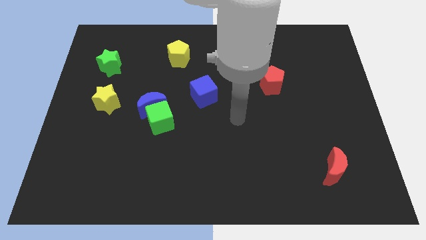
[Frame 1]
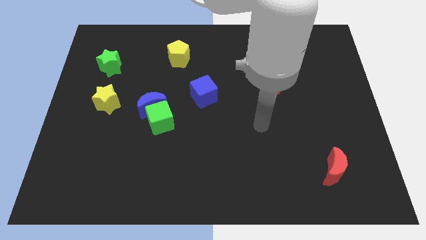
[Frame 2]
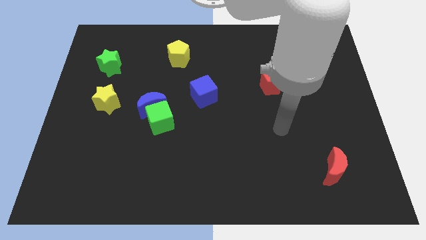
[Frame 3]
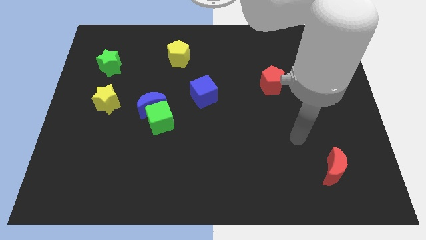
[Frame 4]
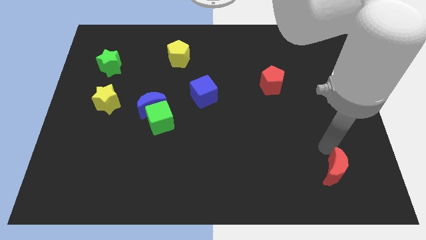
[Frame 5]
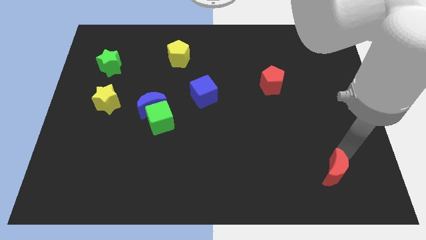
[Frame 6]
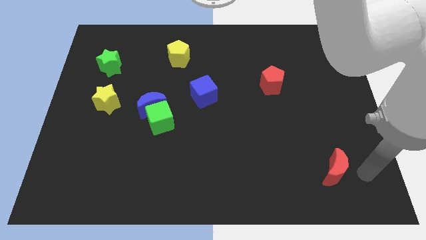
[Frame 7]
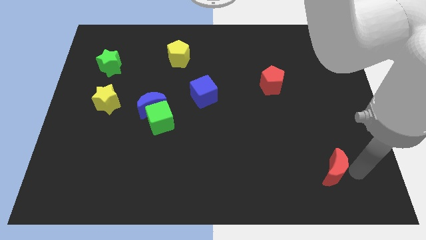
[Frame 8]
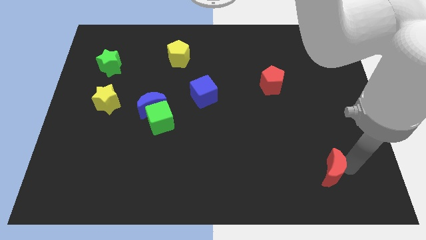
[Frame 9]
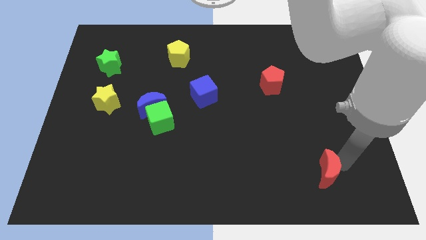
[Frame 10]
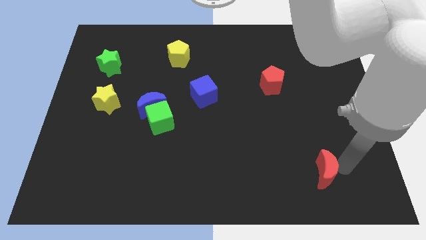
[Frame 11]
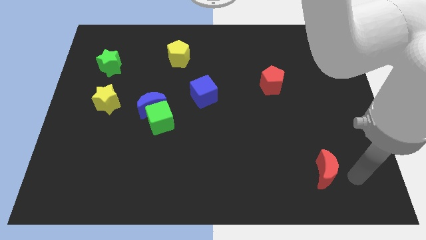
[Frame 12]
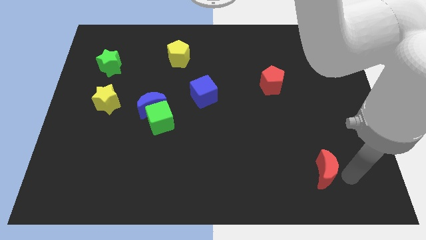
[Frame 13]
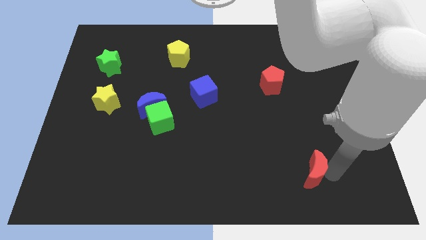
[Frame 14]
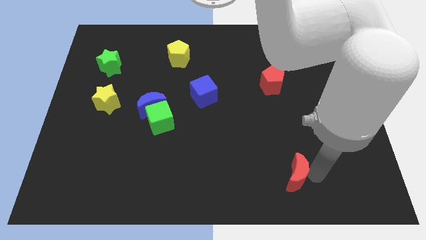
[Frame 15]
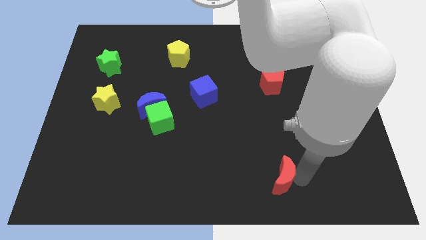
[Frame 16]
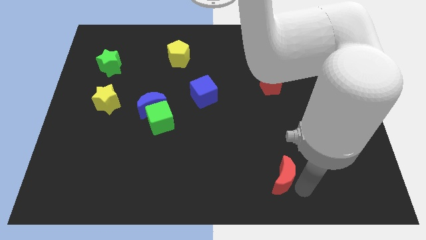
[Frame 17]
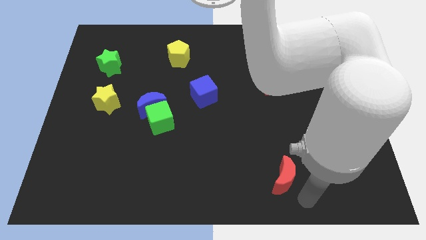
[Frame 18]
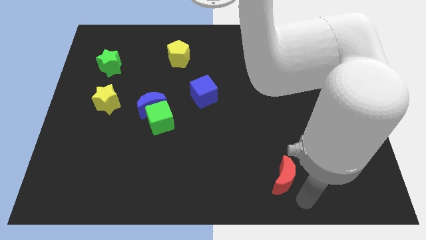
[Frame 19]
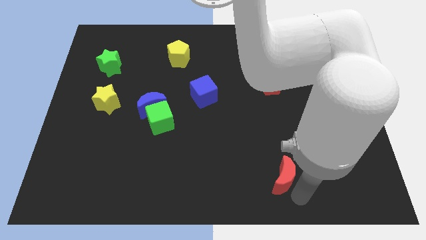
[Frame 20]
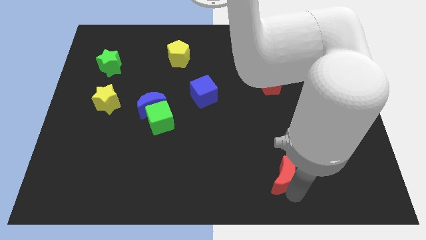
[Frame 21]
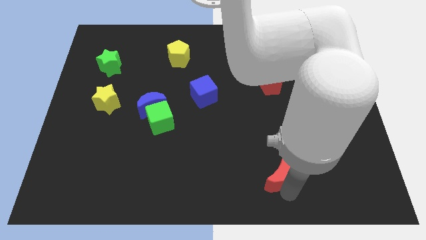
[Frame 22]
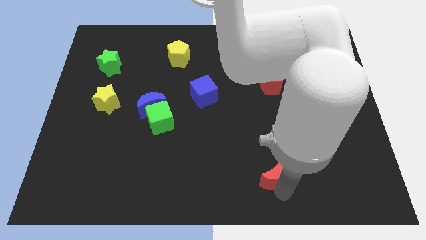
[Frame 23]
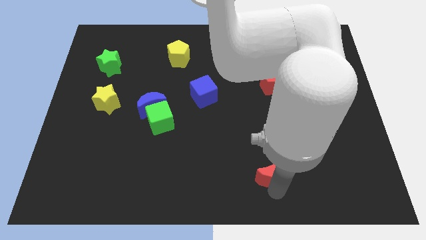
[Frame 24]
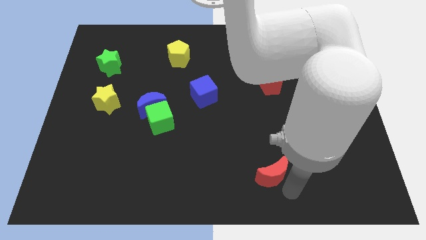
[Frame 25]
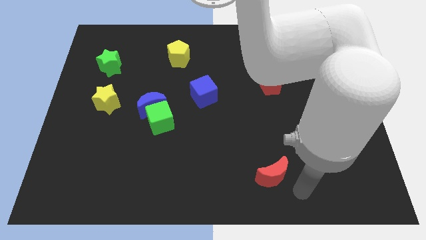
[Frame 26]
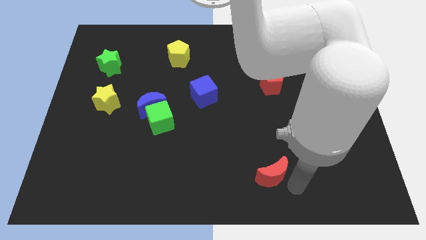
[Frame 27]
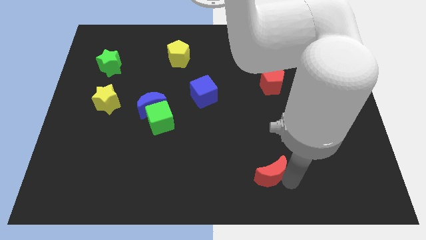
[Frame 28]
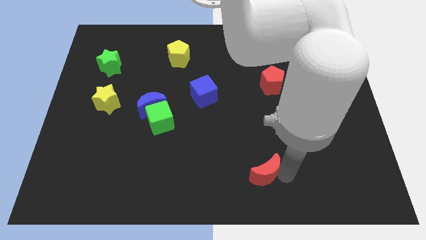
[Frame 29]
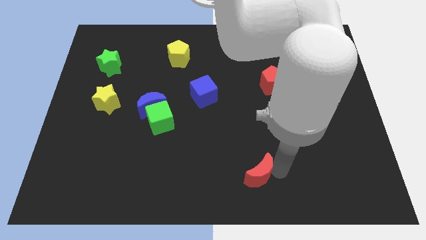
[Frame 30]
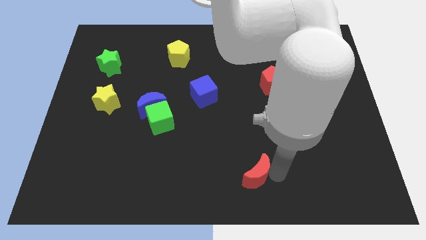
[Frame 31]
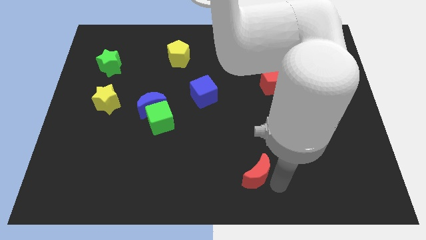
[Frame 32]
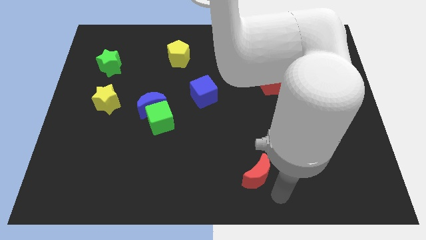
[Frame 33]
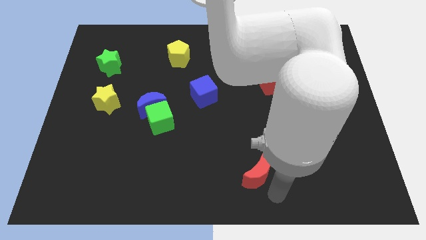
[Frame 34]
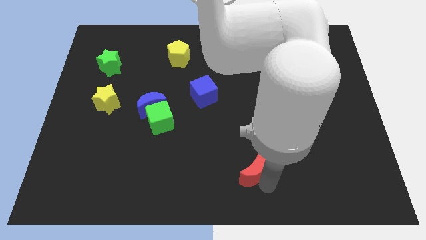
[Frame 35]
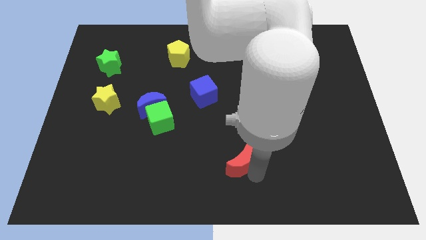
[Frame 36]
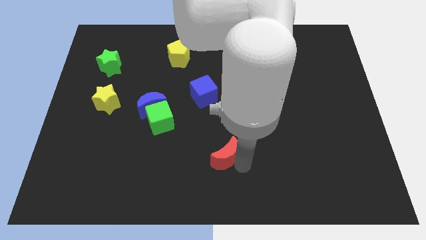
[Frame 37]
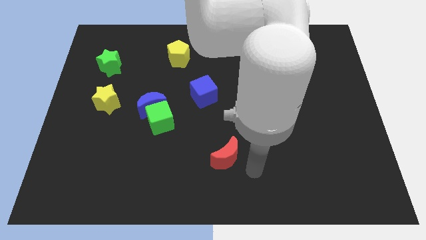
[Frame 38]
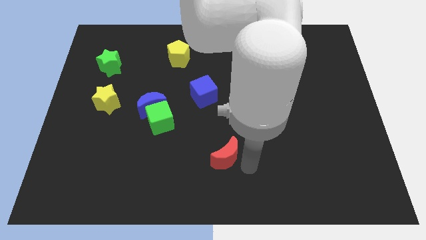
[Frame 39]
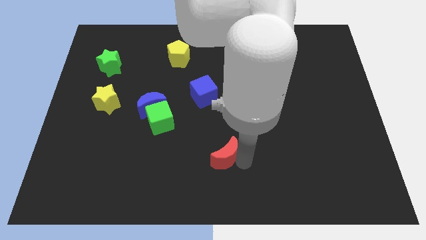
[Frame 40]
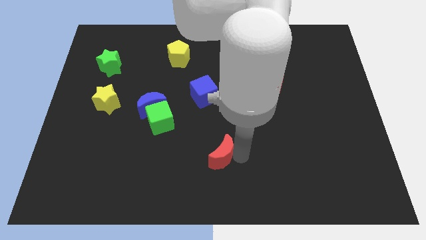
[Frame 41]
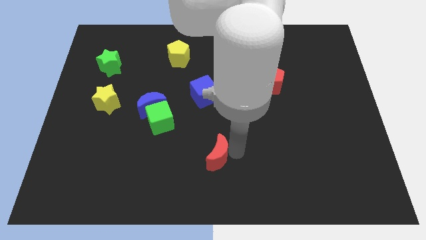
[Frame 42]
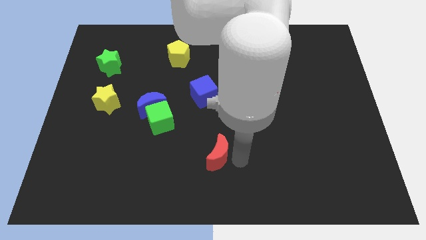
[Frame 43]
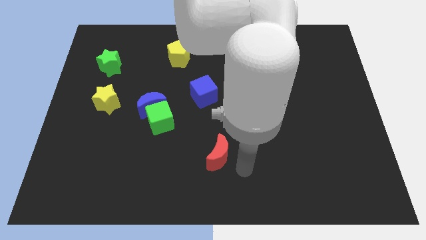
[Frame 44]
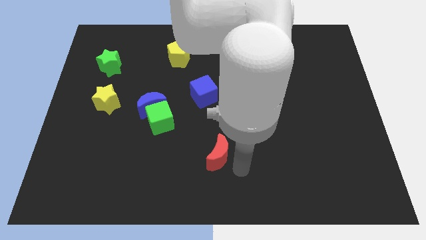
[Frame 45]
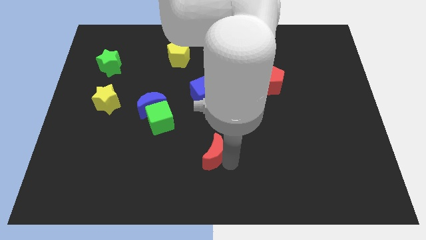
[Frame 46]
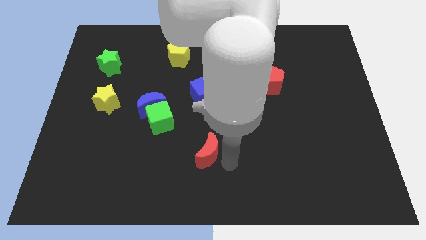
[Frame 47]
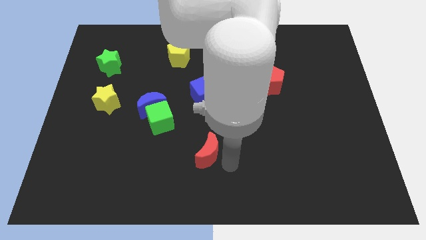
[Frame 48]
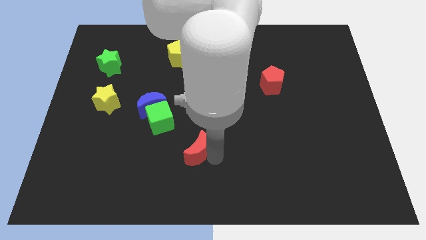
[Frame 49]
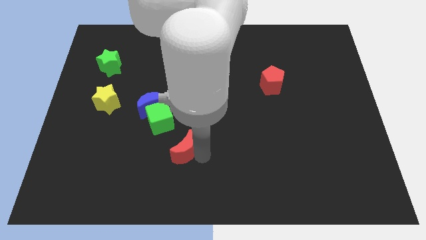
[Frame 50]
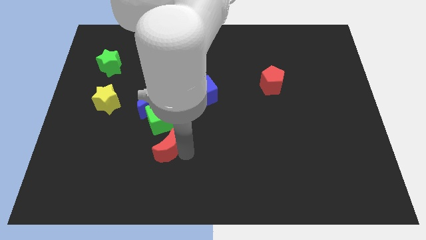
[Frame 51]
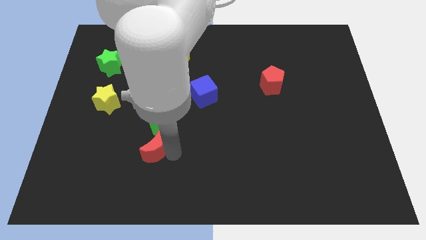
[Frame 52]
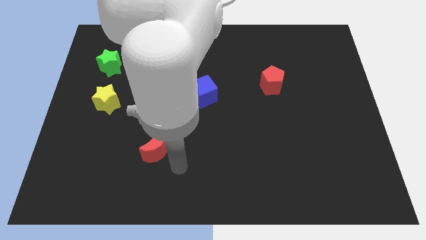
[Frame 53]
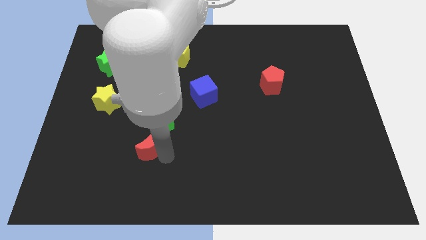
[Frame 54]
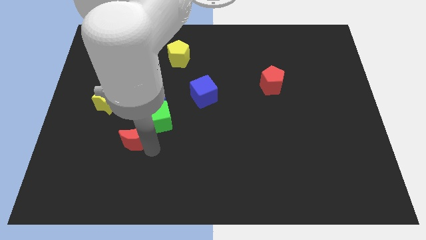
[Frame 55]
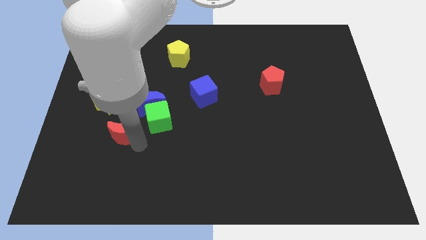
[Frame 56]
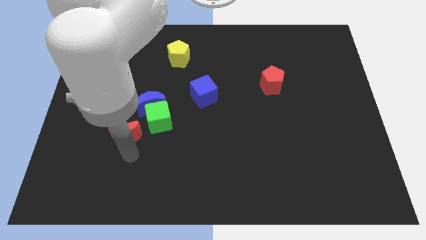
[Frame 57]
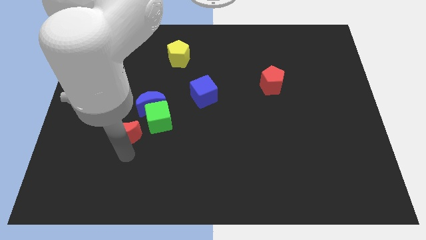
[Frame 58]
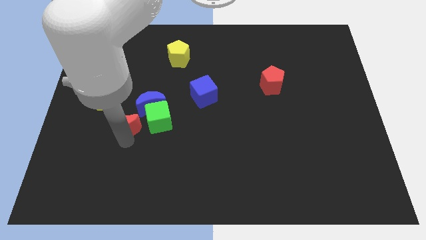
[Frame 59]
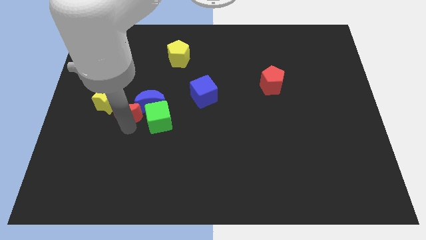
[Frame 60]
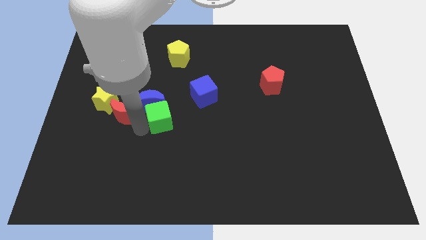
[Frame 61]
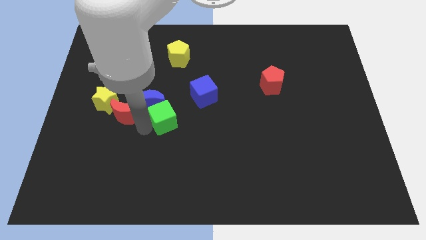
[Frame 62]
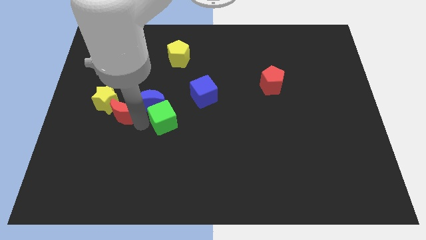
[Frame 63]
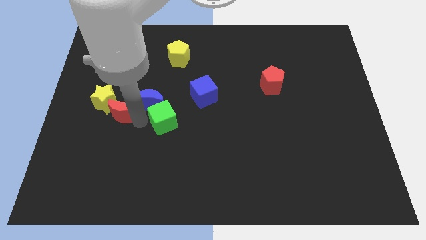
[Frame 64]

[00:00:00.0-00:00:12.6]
push the red moon close to the yellow star
